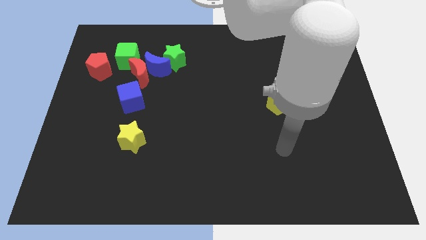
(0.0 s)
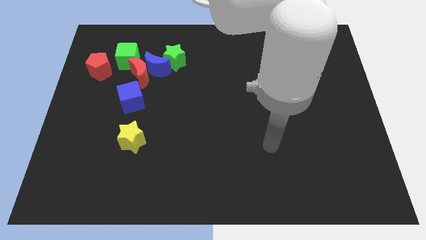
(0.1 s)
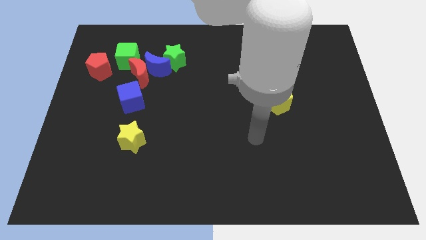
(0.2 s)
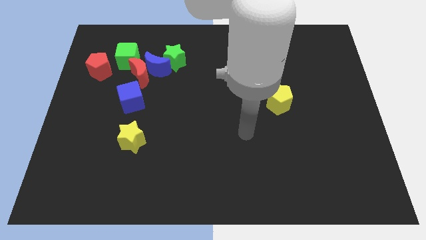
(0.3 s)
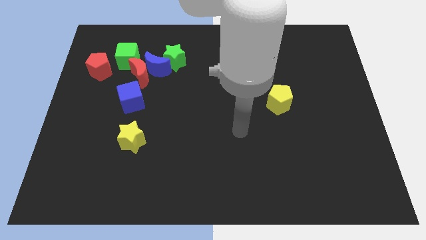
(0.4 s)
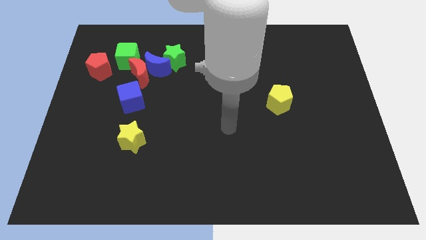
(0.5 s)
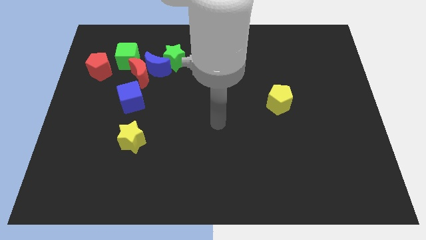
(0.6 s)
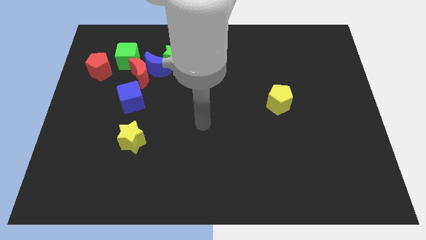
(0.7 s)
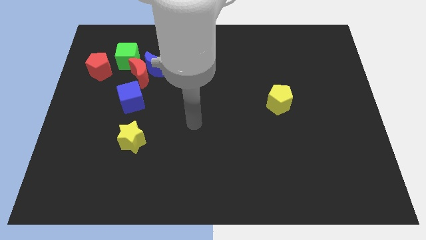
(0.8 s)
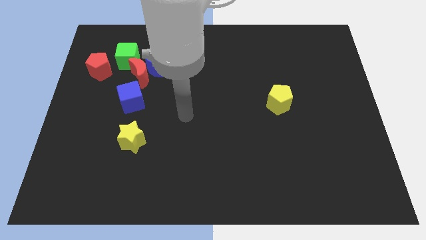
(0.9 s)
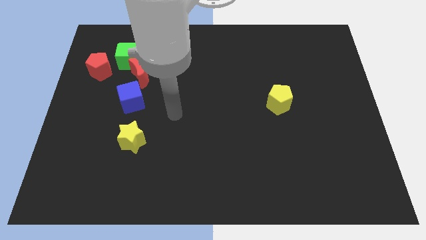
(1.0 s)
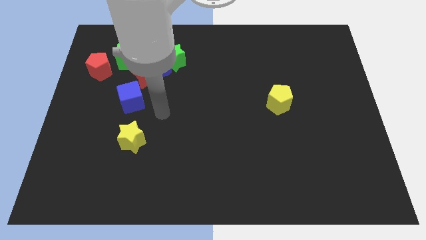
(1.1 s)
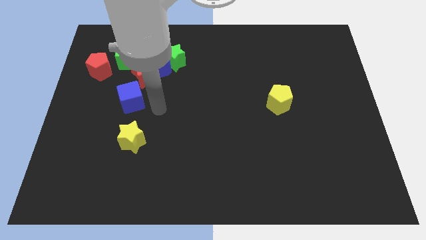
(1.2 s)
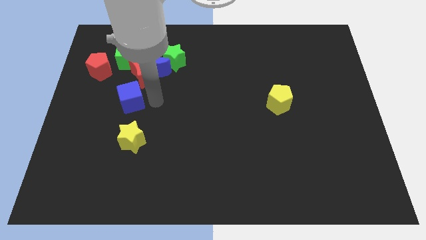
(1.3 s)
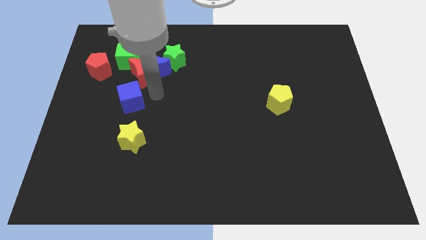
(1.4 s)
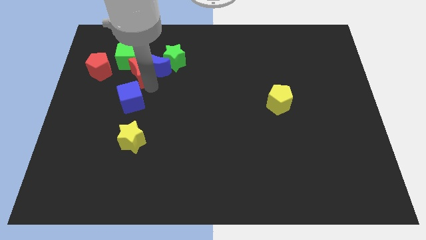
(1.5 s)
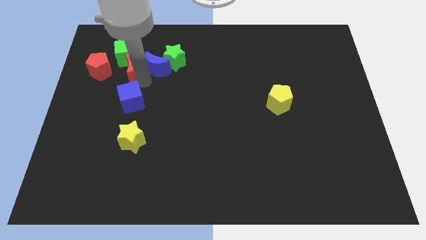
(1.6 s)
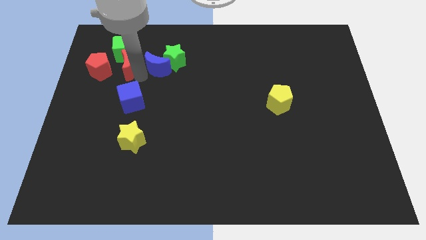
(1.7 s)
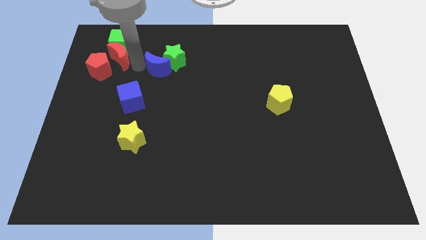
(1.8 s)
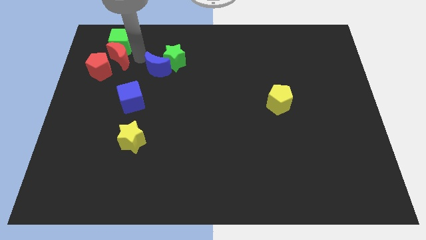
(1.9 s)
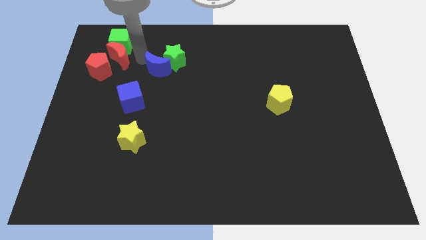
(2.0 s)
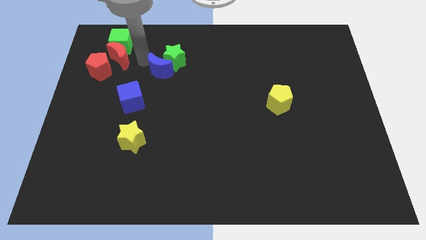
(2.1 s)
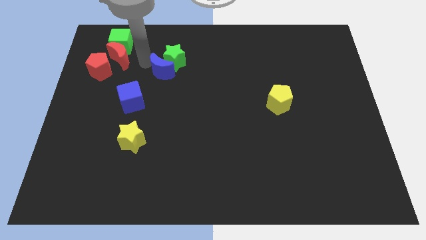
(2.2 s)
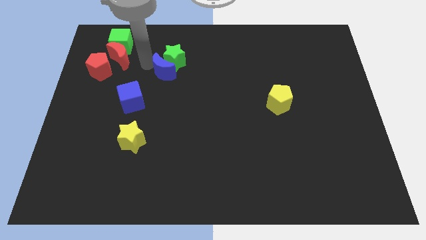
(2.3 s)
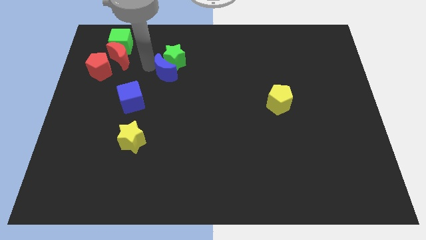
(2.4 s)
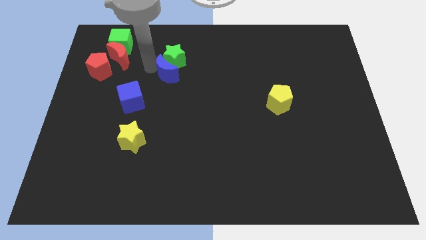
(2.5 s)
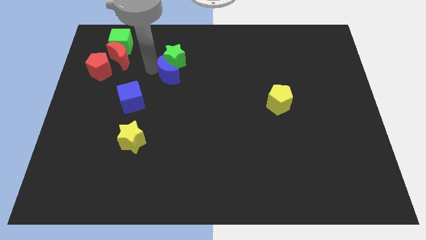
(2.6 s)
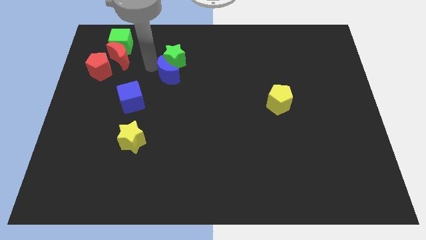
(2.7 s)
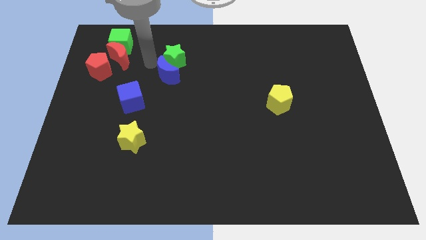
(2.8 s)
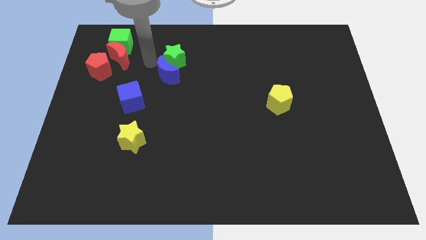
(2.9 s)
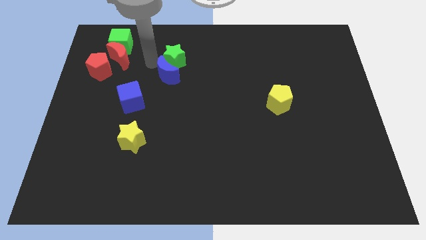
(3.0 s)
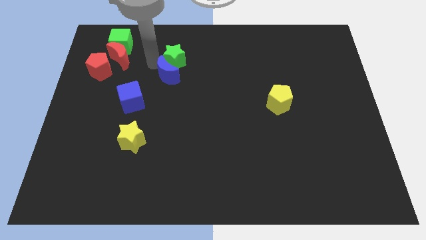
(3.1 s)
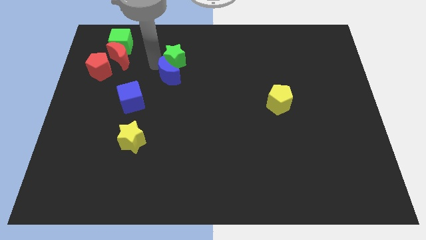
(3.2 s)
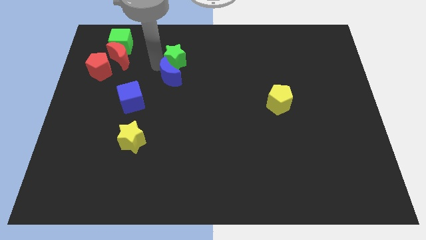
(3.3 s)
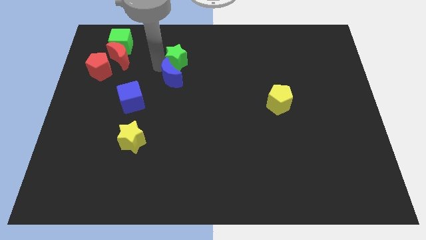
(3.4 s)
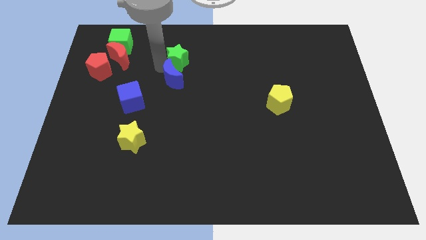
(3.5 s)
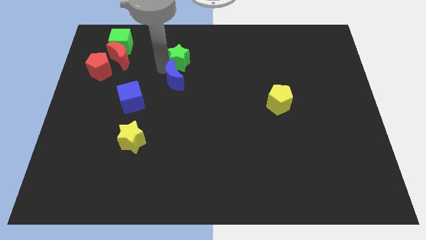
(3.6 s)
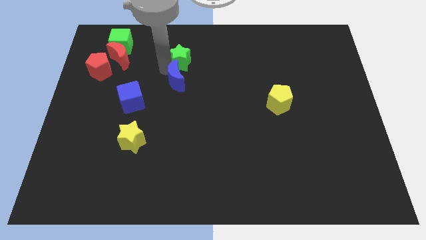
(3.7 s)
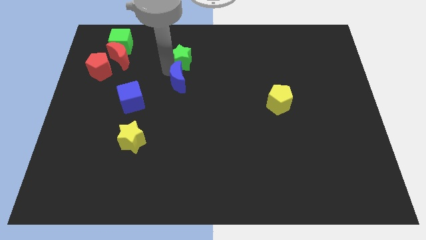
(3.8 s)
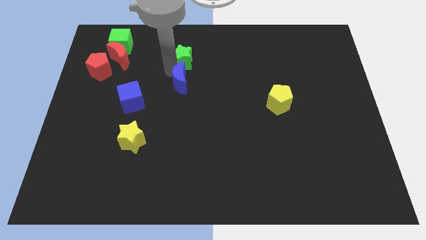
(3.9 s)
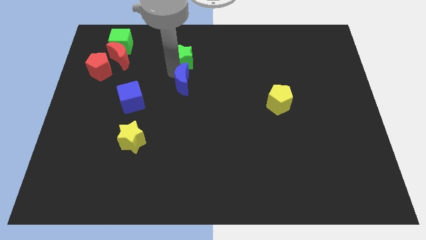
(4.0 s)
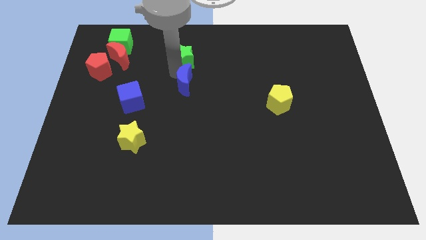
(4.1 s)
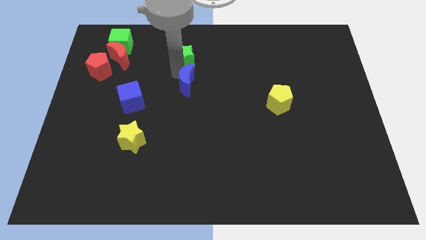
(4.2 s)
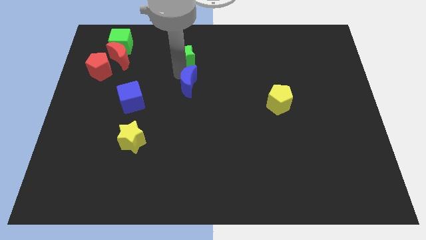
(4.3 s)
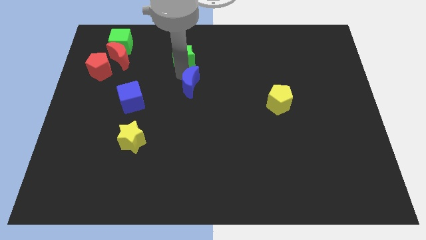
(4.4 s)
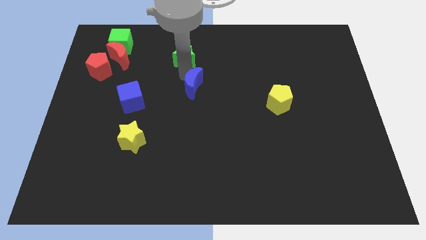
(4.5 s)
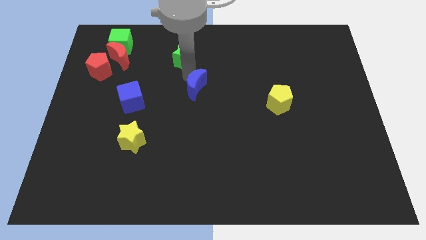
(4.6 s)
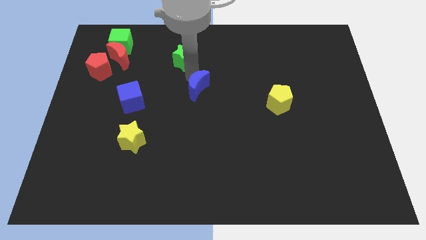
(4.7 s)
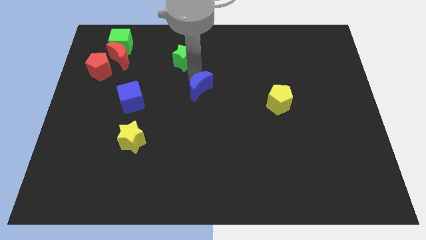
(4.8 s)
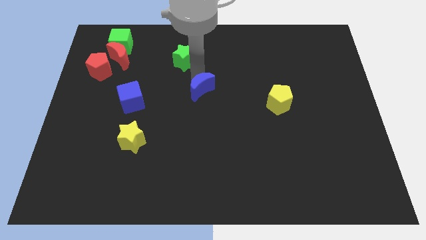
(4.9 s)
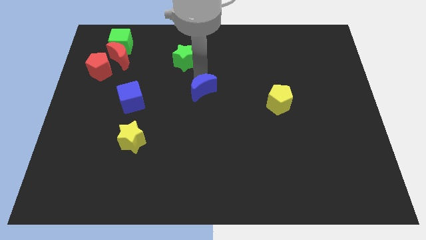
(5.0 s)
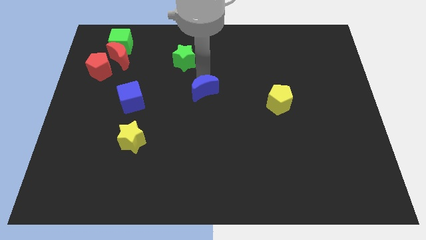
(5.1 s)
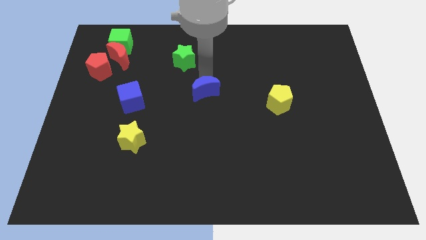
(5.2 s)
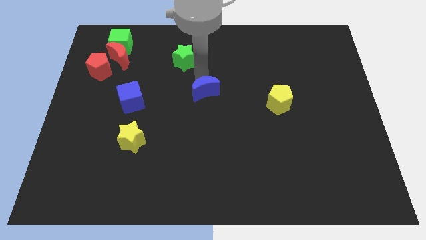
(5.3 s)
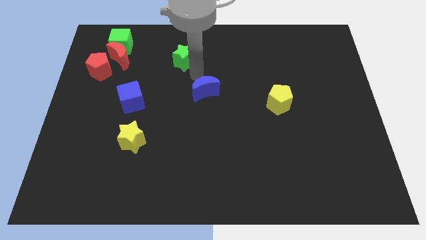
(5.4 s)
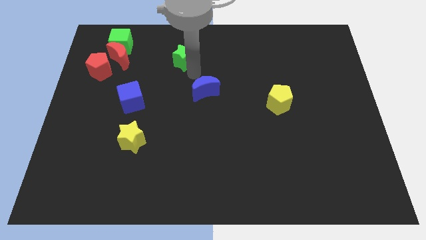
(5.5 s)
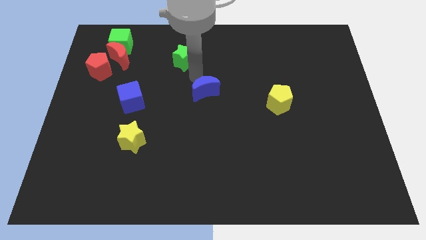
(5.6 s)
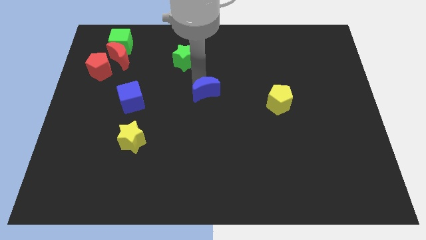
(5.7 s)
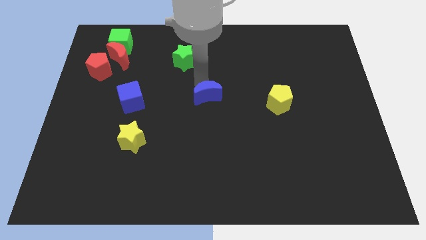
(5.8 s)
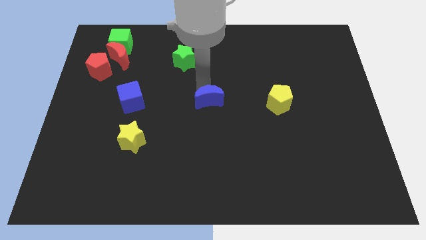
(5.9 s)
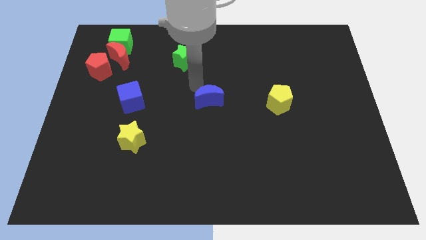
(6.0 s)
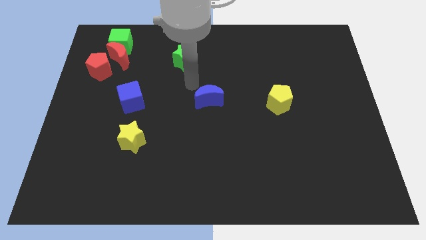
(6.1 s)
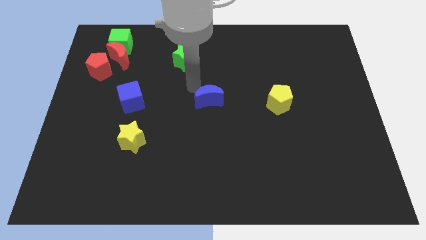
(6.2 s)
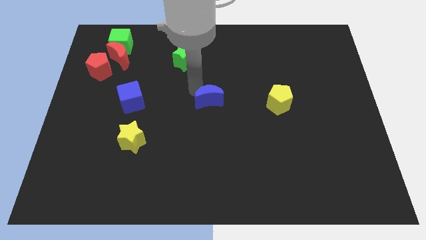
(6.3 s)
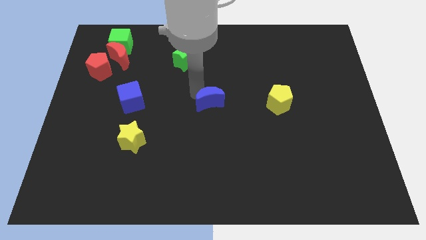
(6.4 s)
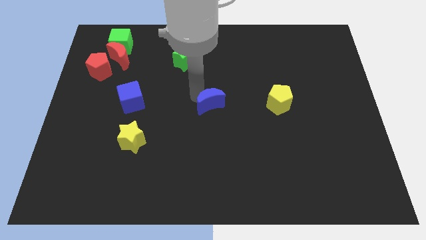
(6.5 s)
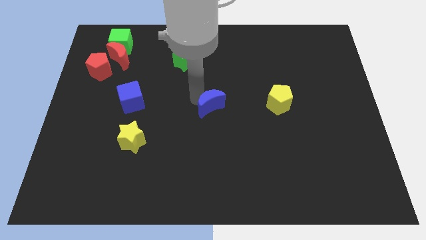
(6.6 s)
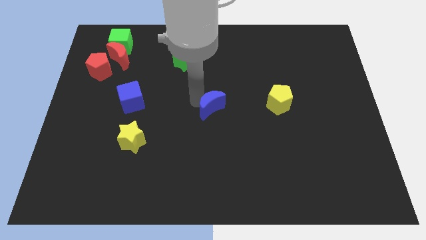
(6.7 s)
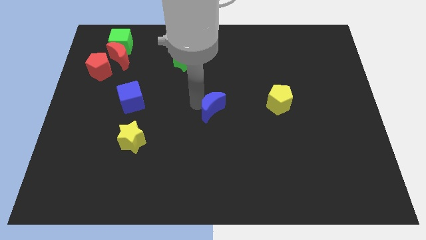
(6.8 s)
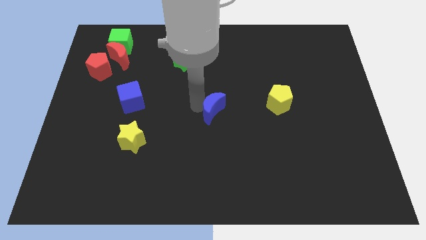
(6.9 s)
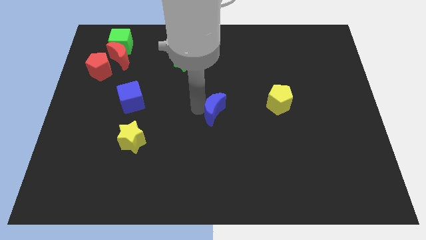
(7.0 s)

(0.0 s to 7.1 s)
push the blue moon downwards and then right

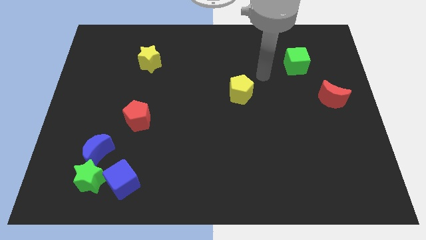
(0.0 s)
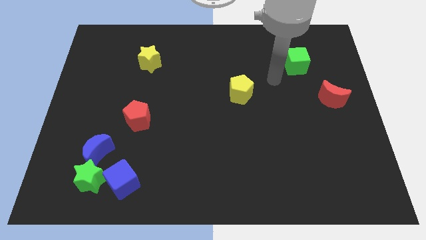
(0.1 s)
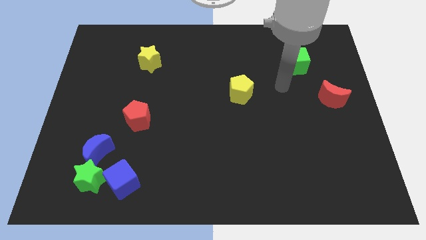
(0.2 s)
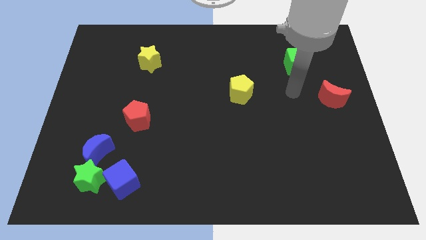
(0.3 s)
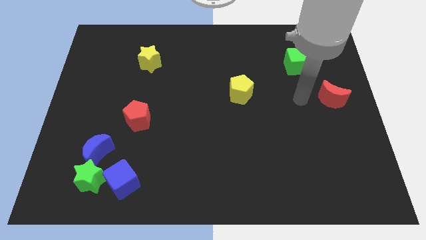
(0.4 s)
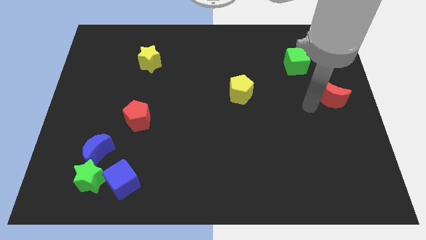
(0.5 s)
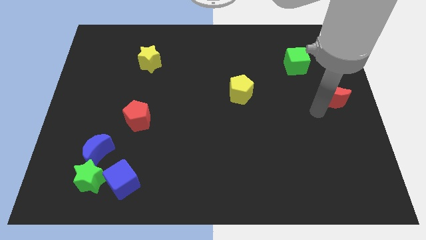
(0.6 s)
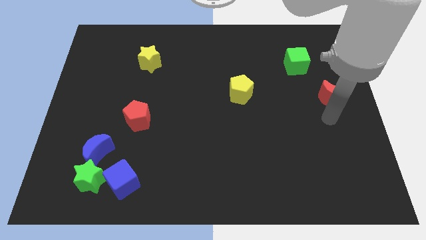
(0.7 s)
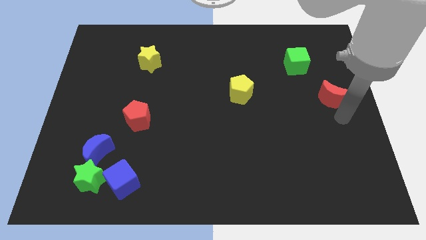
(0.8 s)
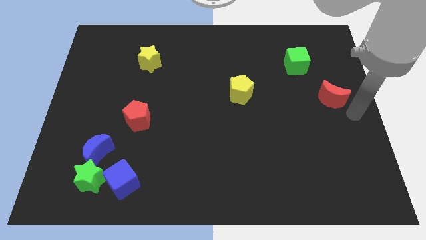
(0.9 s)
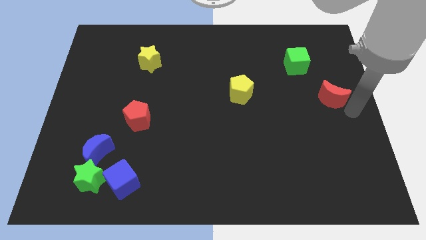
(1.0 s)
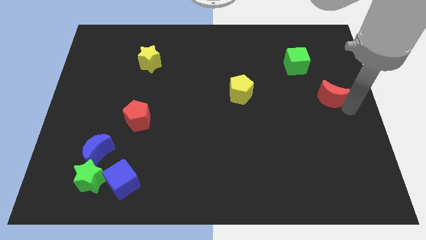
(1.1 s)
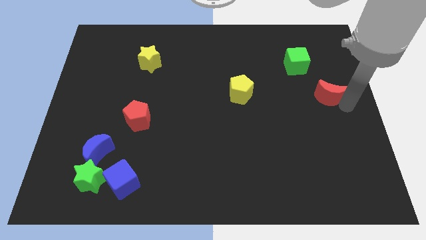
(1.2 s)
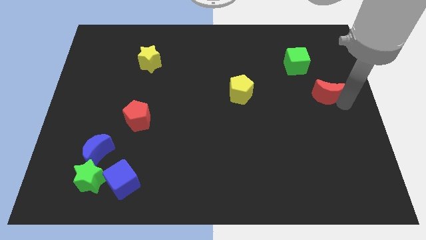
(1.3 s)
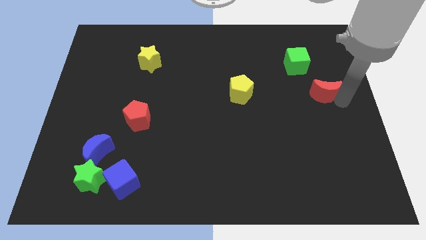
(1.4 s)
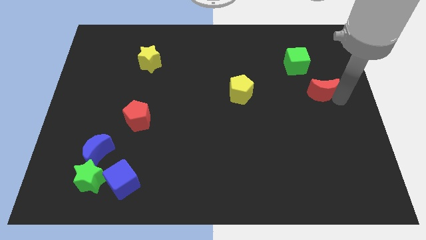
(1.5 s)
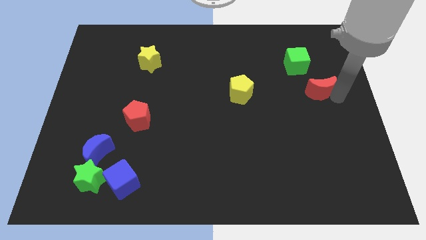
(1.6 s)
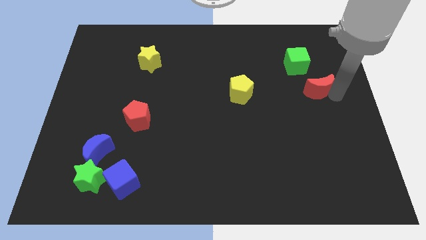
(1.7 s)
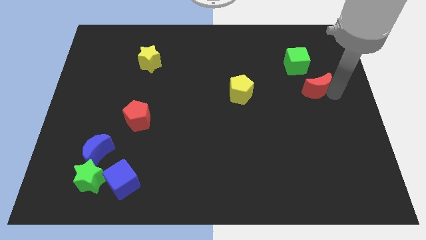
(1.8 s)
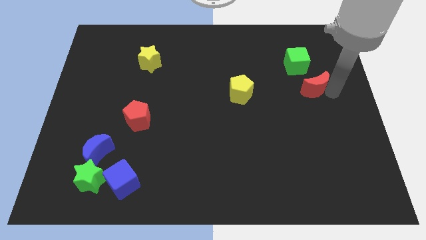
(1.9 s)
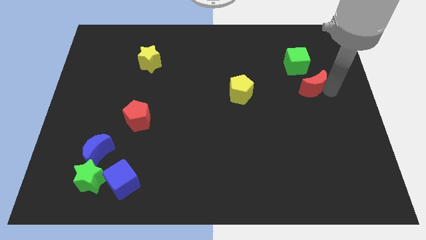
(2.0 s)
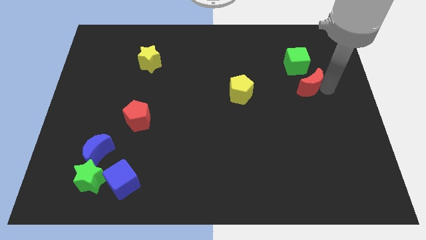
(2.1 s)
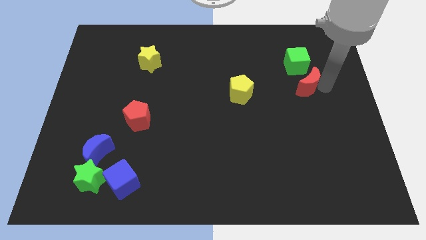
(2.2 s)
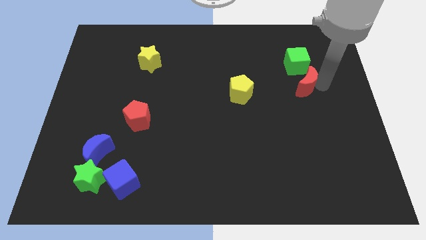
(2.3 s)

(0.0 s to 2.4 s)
slide the red moon up and left somewhat
